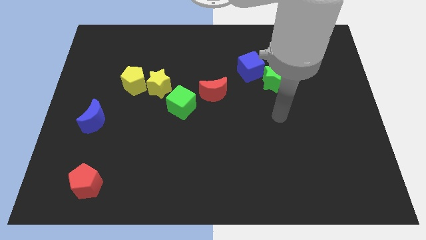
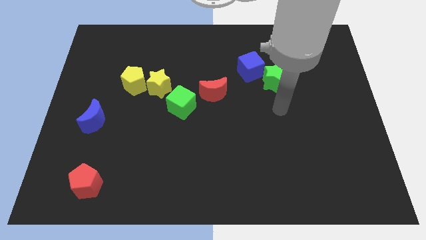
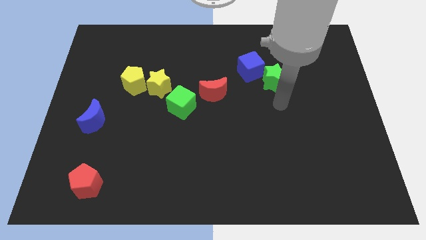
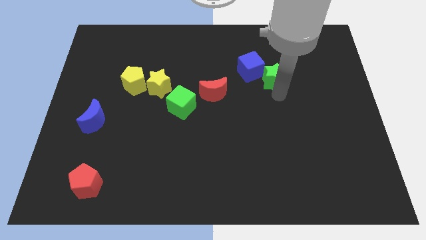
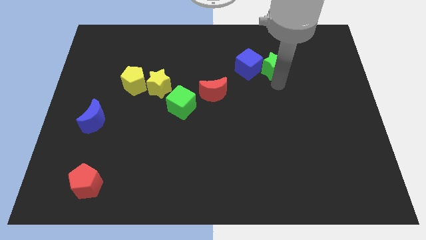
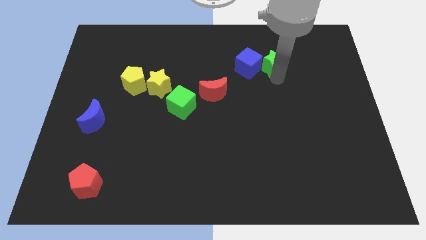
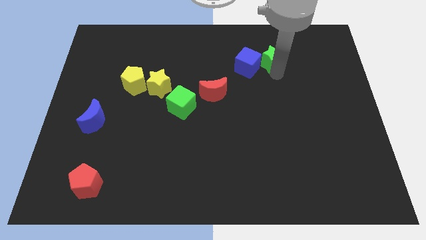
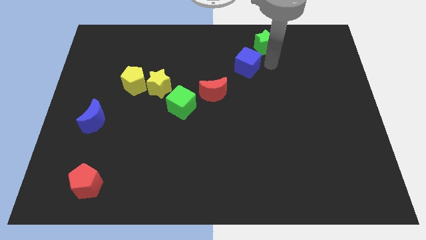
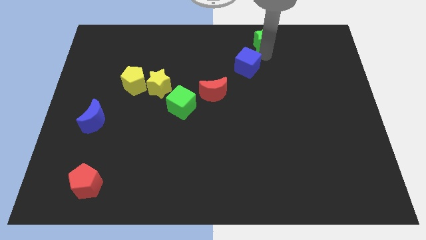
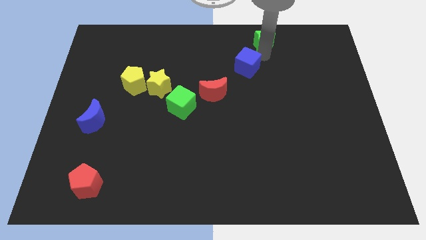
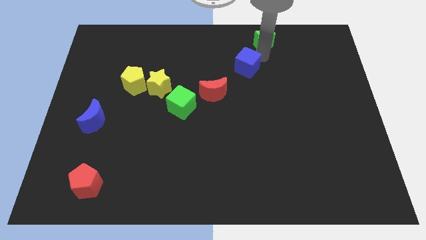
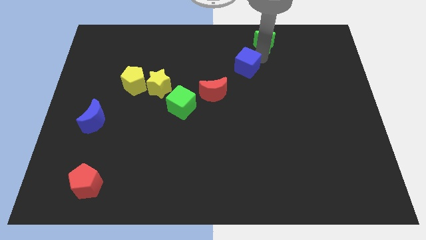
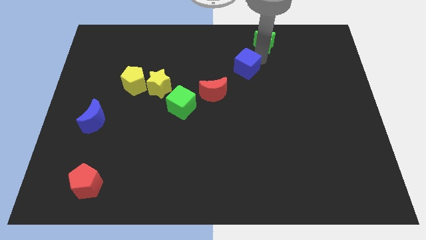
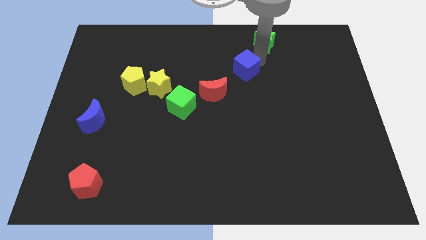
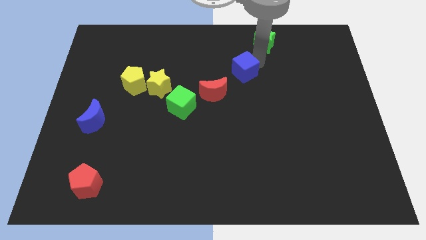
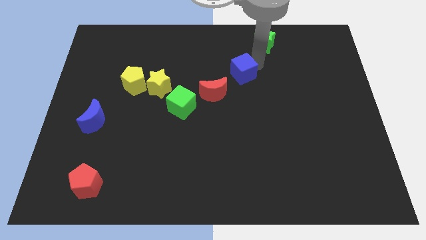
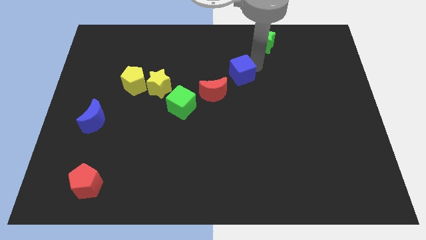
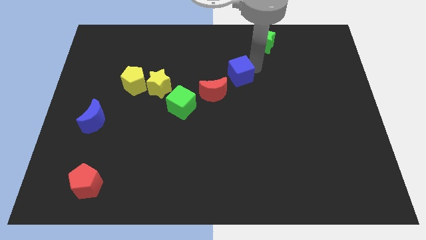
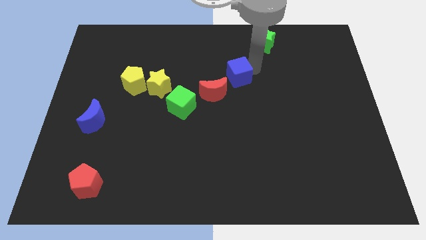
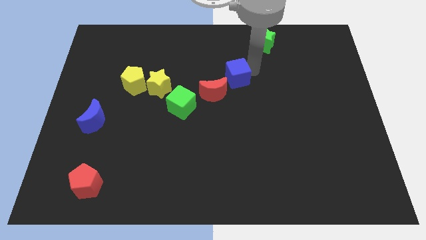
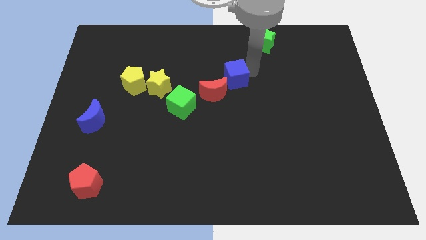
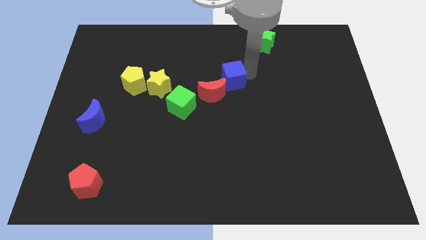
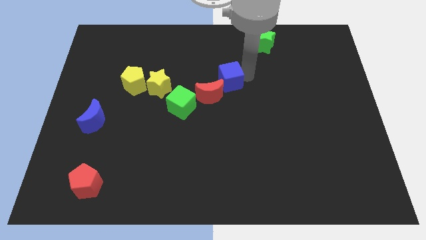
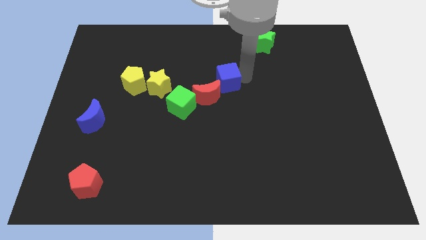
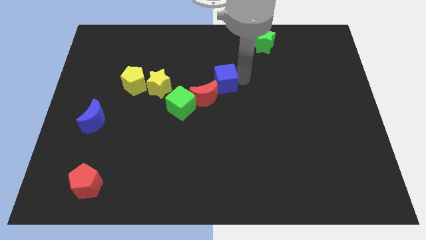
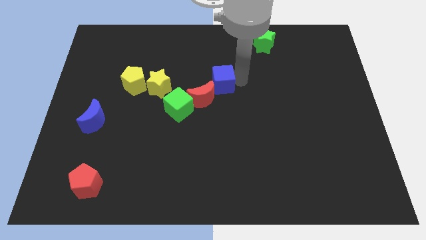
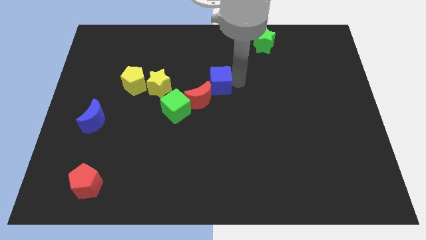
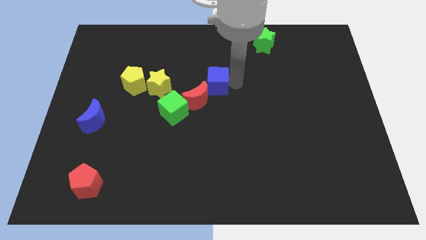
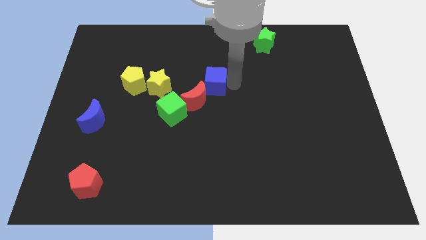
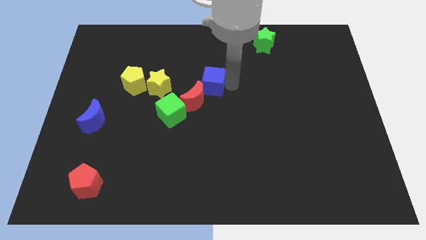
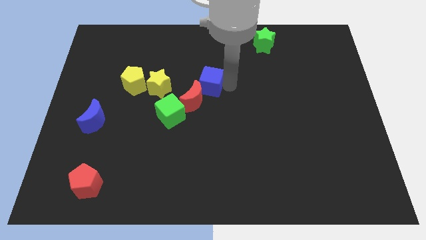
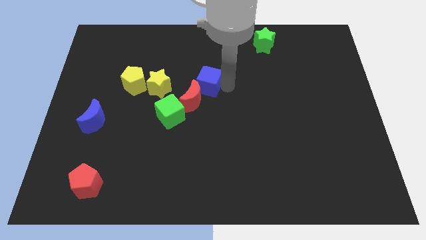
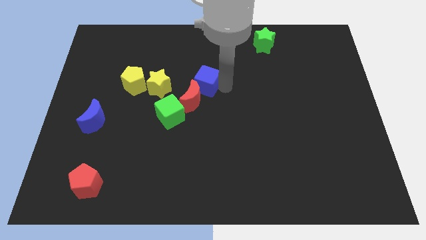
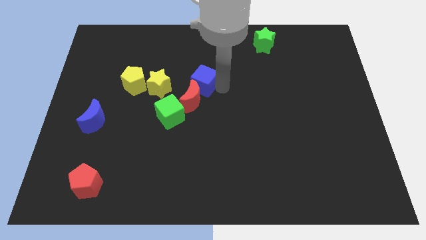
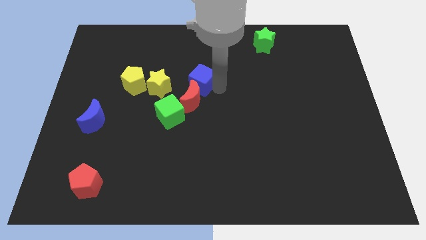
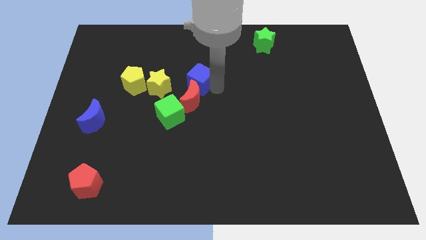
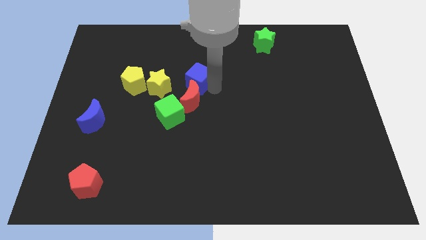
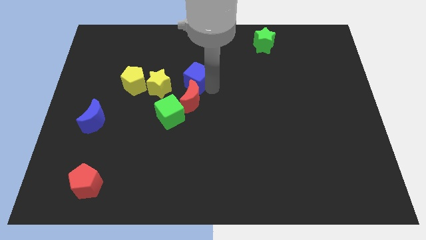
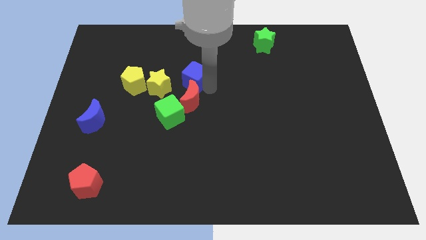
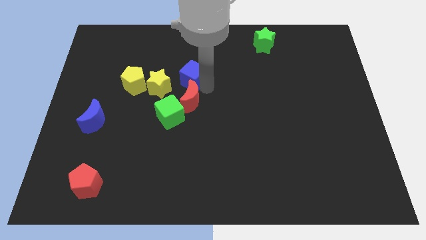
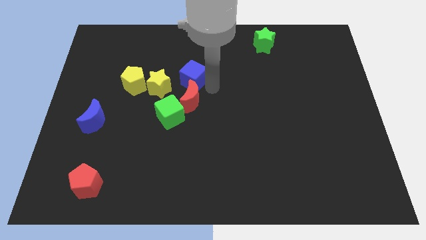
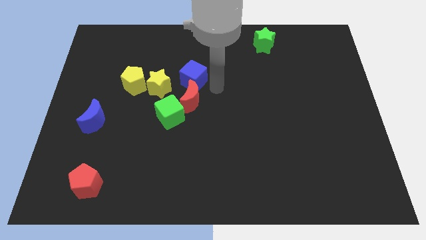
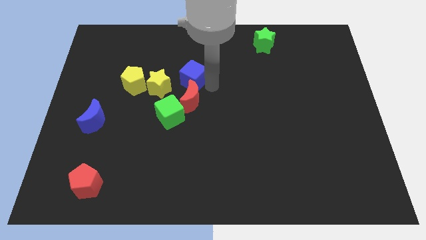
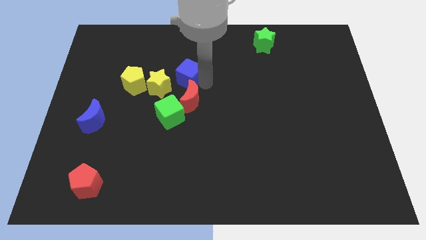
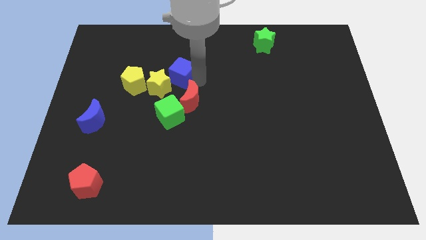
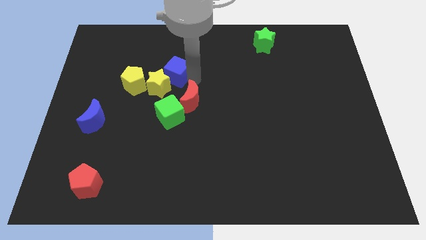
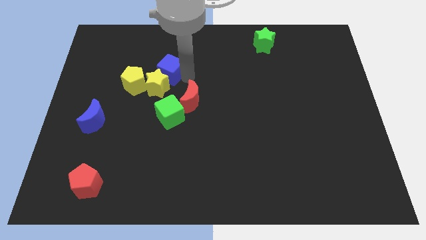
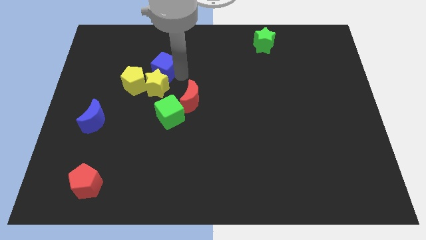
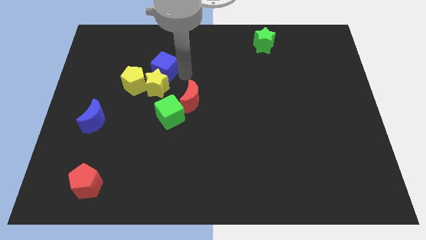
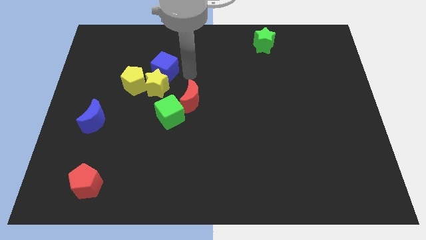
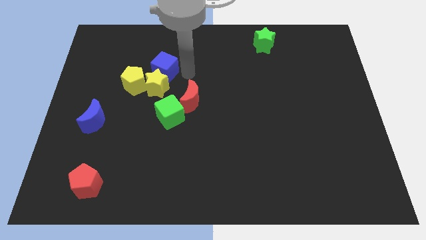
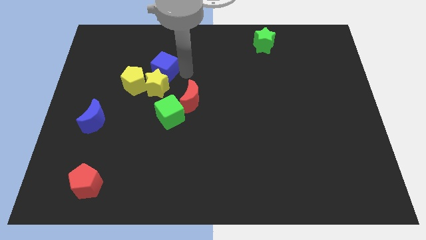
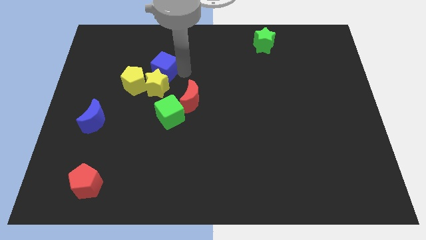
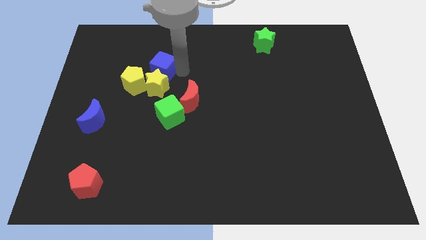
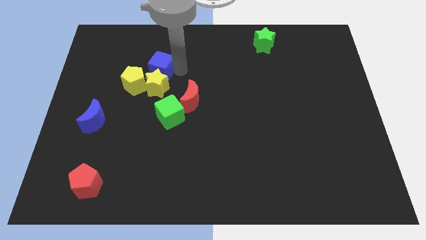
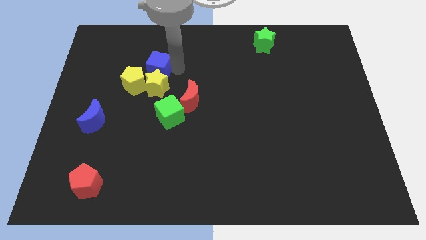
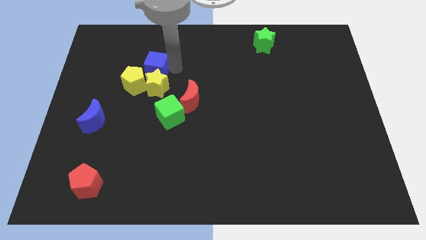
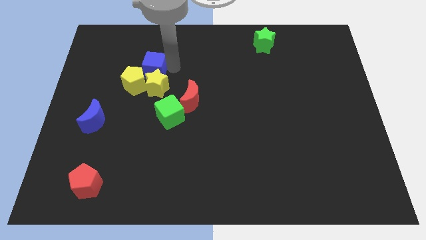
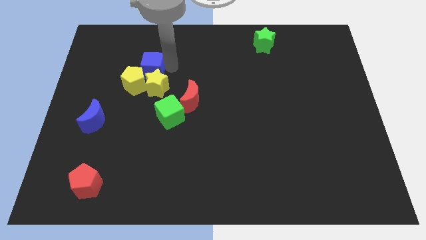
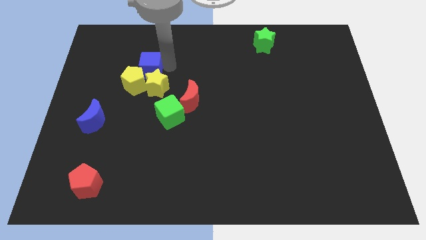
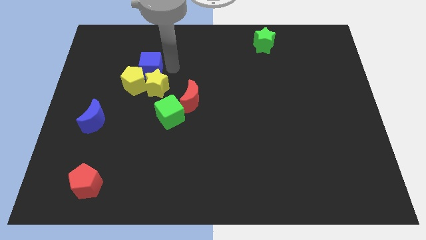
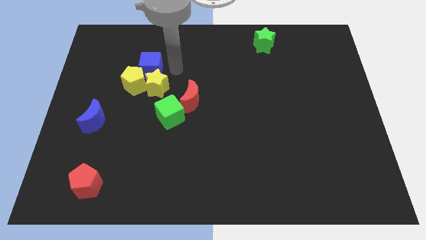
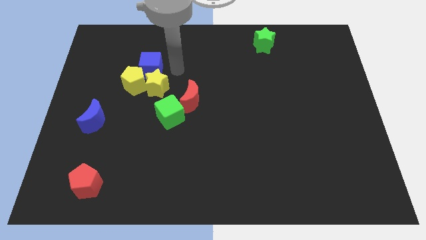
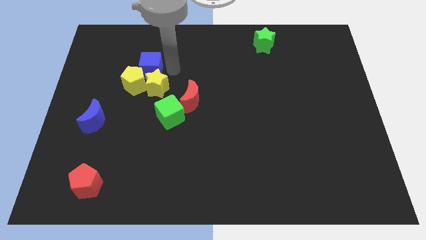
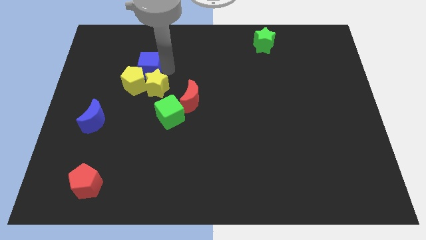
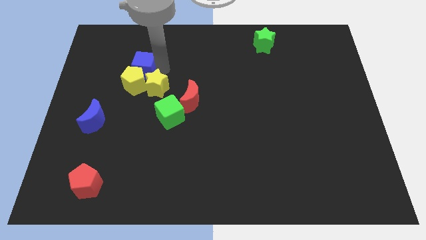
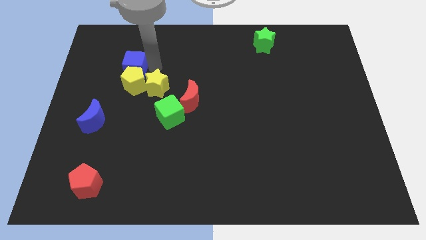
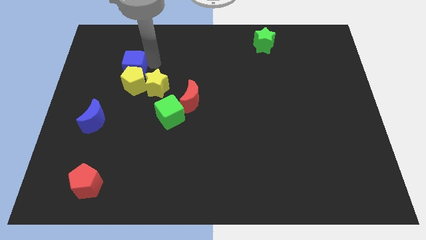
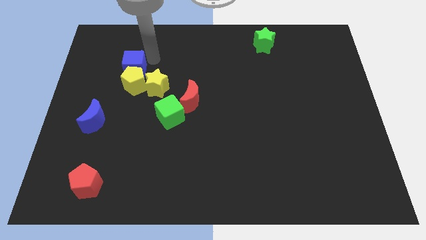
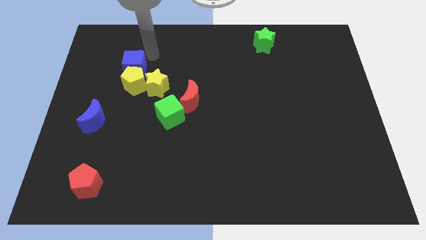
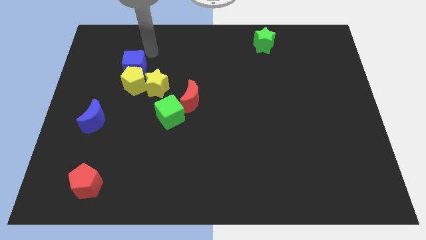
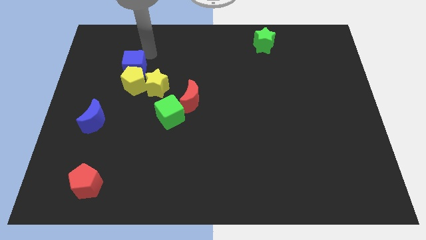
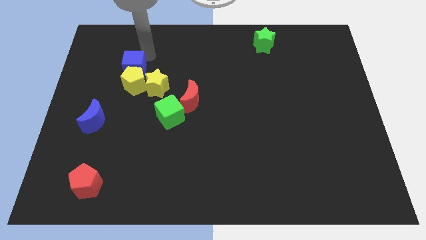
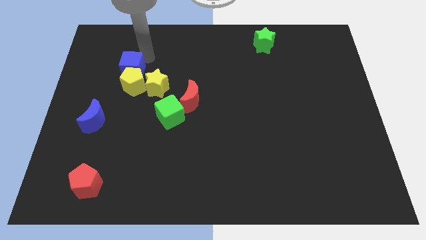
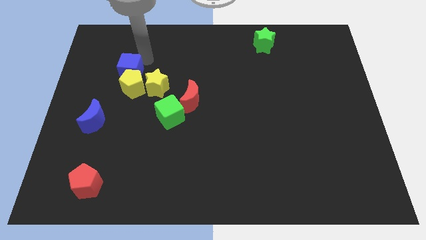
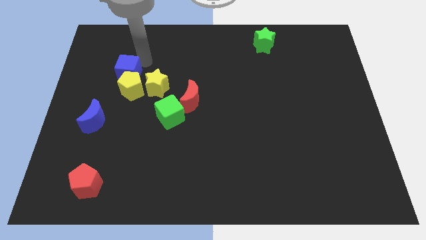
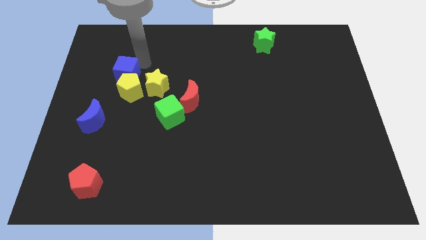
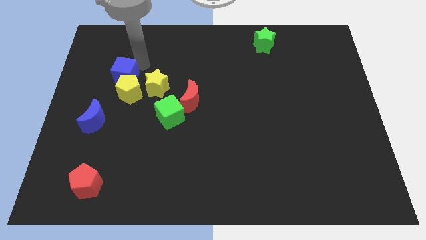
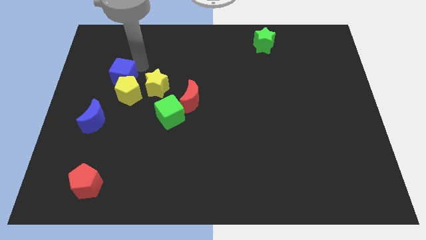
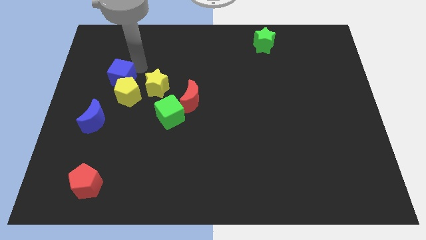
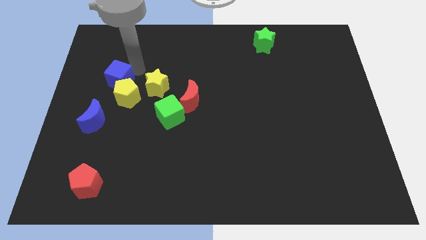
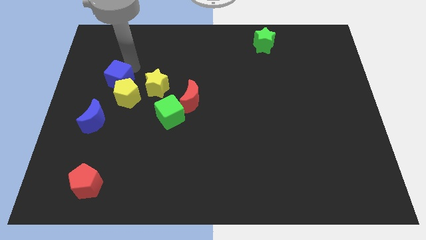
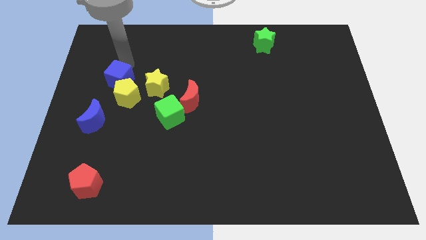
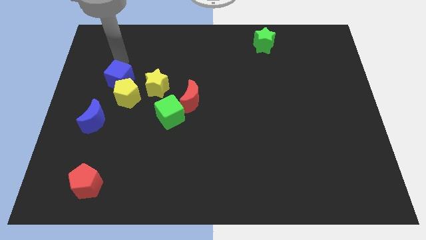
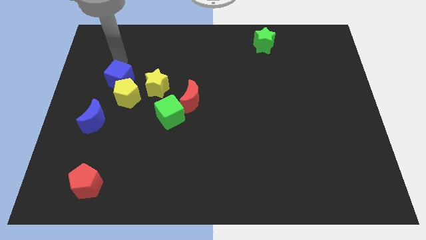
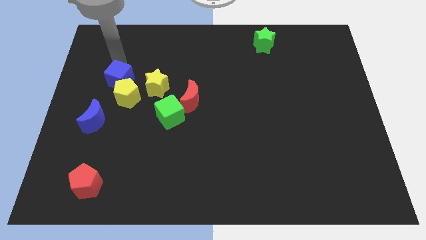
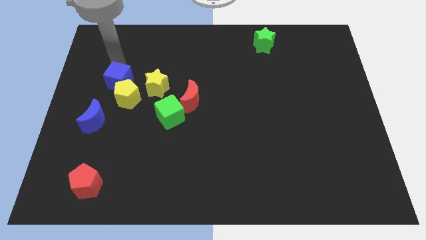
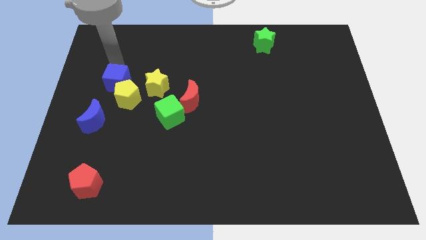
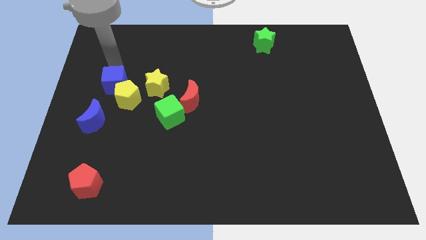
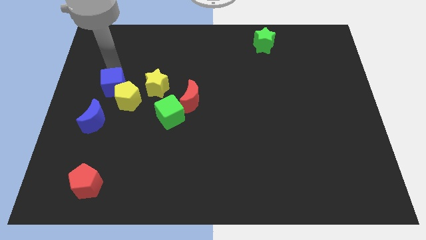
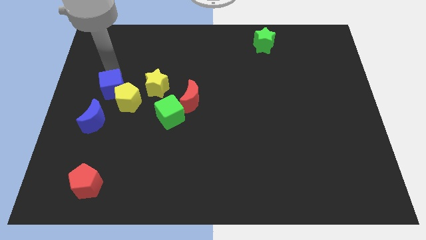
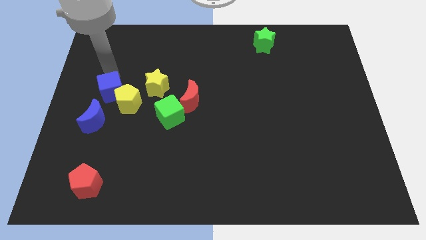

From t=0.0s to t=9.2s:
move the blue cube to the top right side of the blue moon
